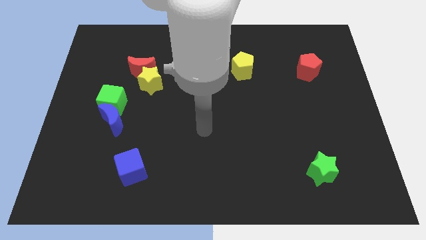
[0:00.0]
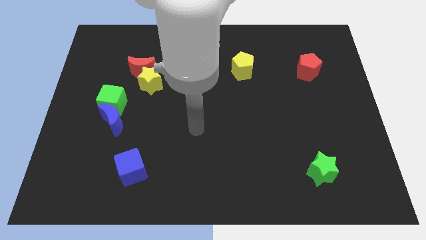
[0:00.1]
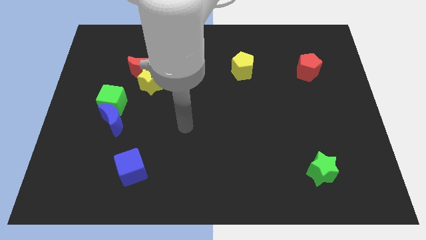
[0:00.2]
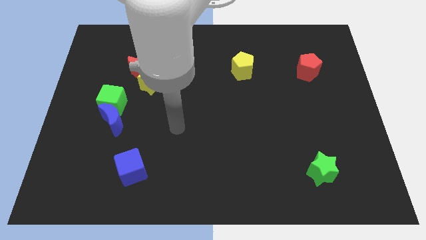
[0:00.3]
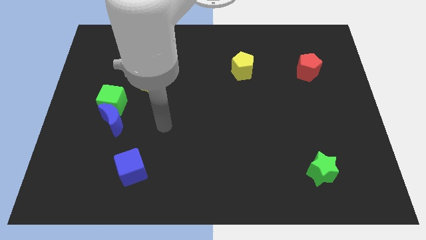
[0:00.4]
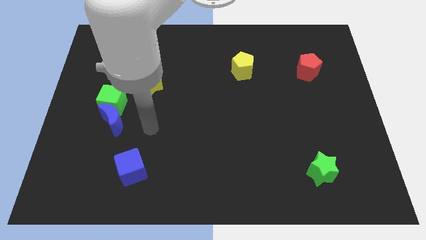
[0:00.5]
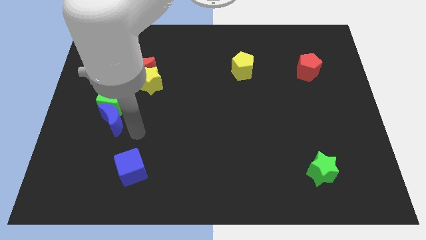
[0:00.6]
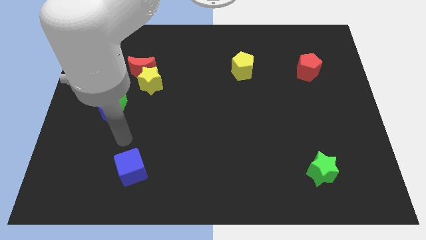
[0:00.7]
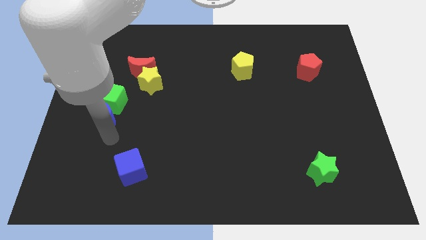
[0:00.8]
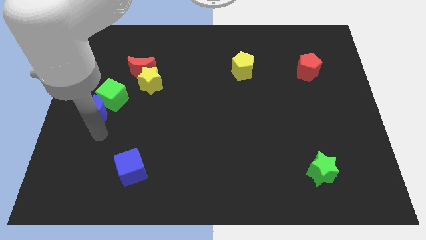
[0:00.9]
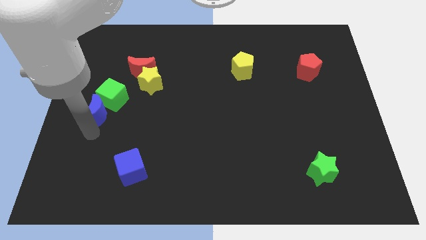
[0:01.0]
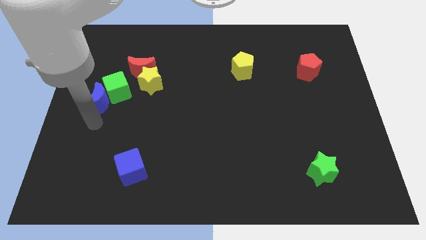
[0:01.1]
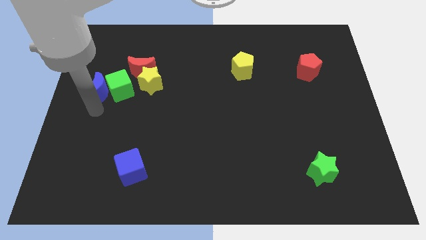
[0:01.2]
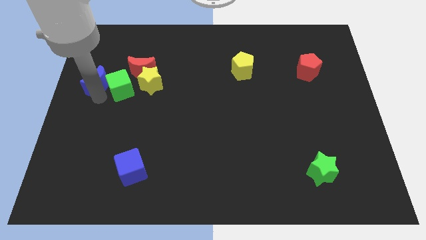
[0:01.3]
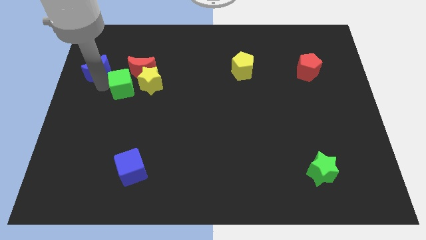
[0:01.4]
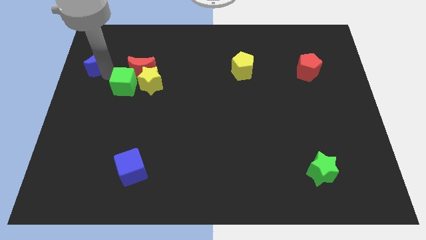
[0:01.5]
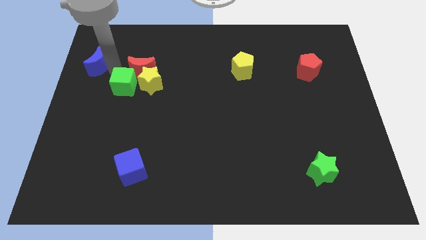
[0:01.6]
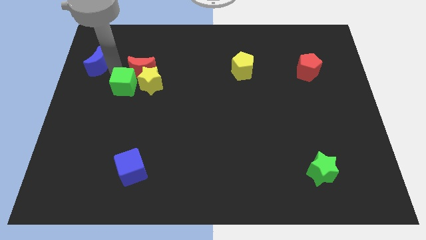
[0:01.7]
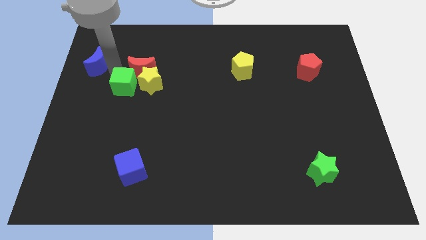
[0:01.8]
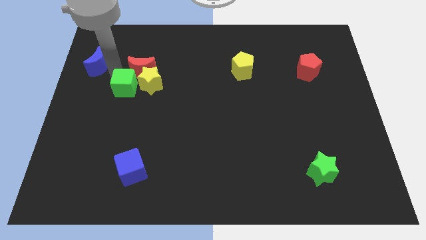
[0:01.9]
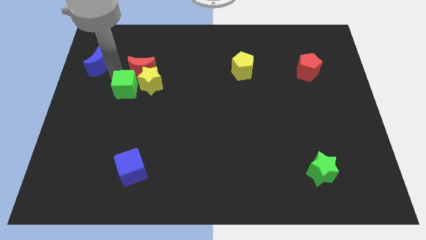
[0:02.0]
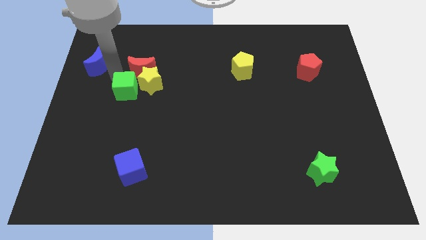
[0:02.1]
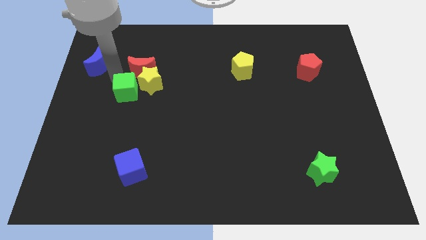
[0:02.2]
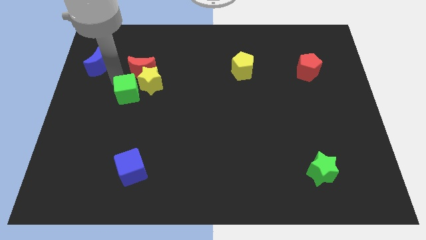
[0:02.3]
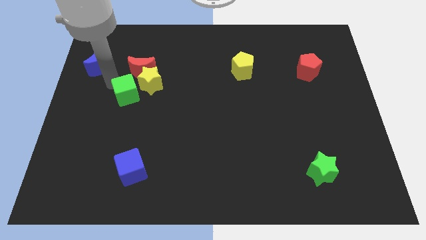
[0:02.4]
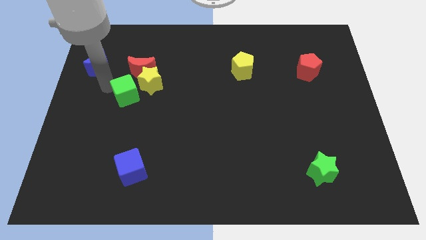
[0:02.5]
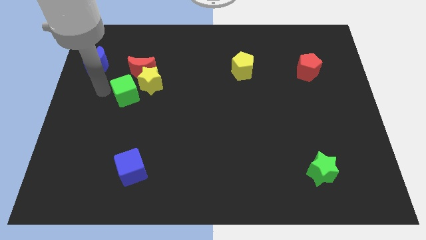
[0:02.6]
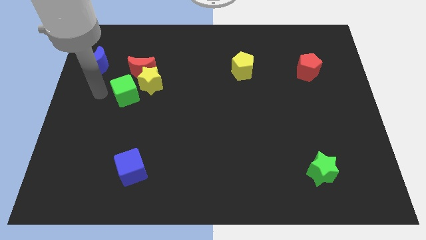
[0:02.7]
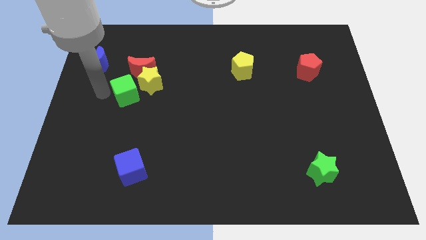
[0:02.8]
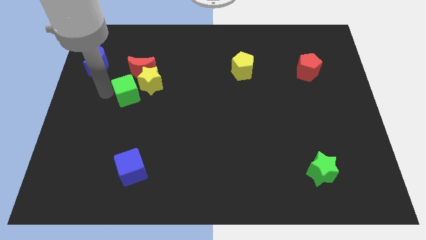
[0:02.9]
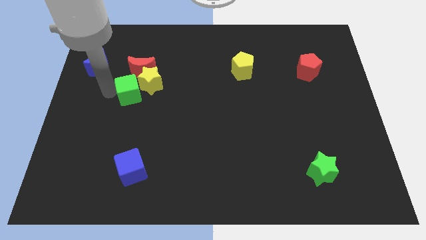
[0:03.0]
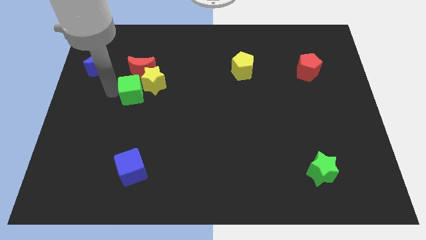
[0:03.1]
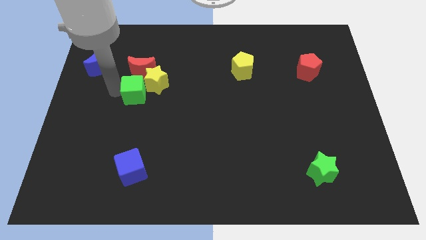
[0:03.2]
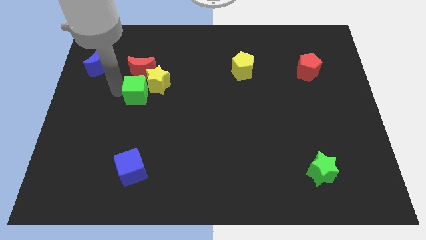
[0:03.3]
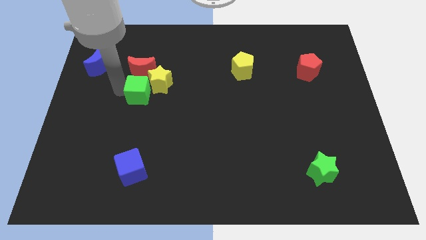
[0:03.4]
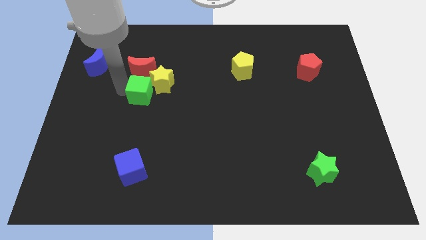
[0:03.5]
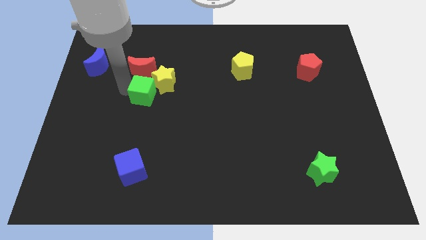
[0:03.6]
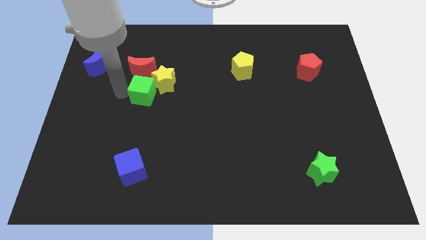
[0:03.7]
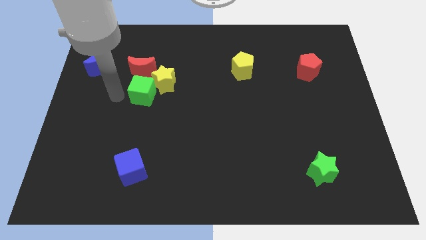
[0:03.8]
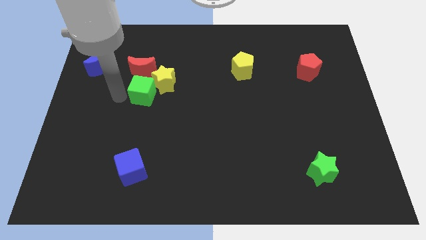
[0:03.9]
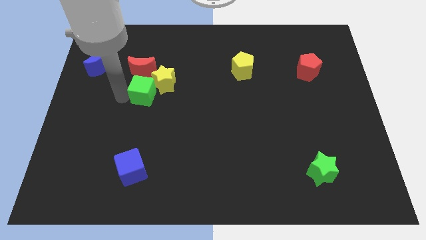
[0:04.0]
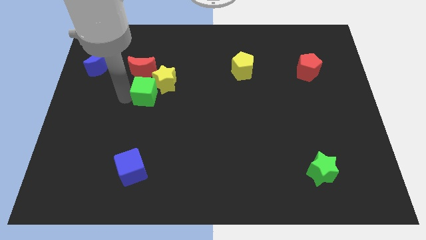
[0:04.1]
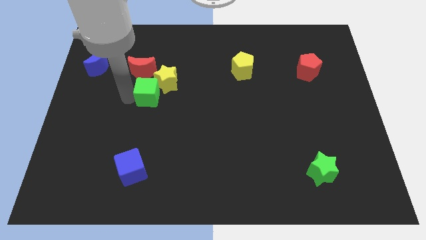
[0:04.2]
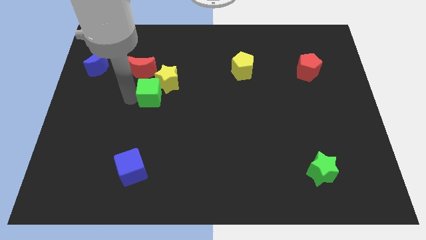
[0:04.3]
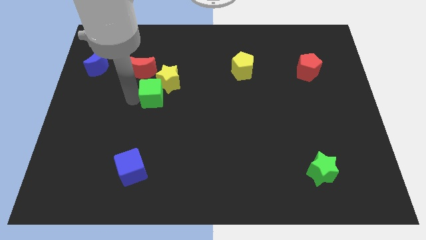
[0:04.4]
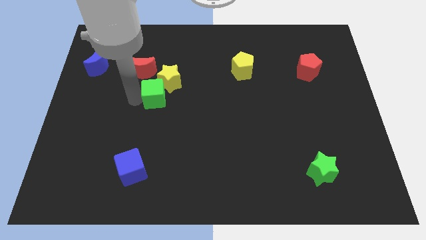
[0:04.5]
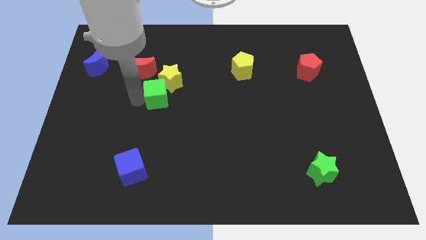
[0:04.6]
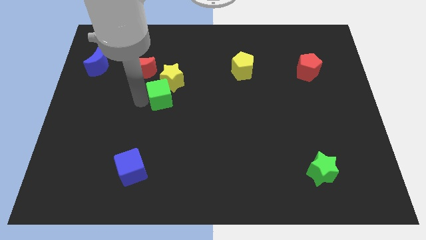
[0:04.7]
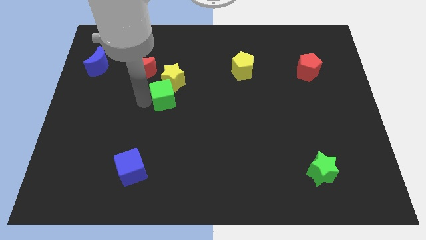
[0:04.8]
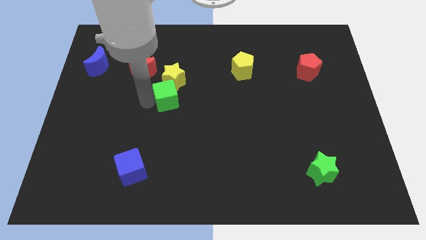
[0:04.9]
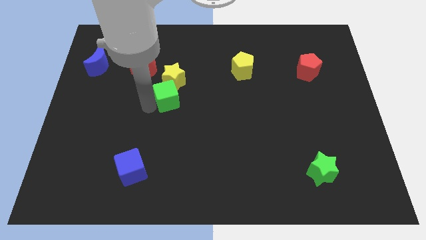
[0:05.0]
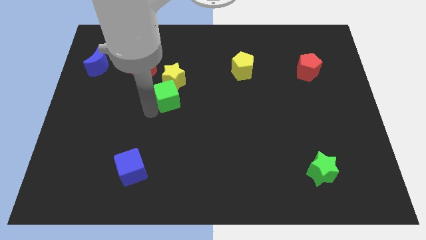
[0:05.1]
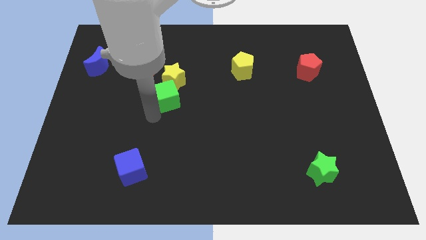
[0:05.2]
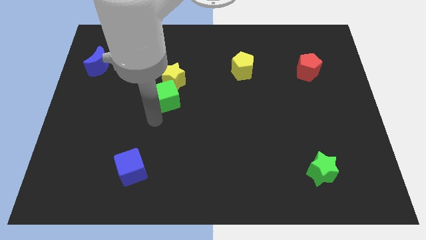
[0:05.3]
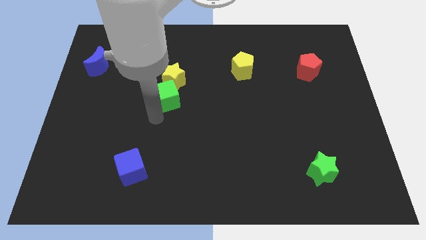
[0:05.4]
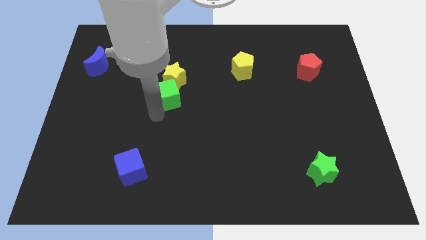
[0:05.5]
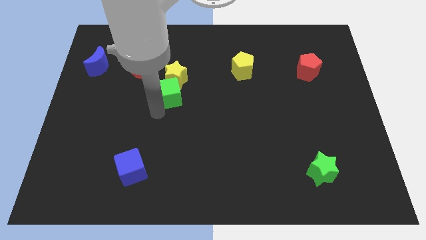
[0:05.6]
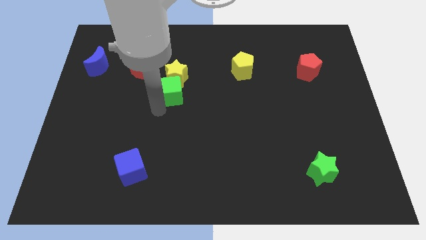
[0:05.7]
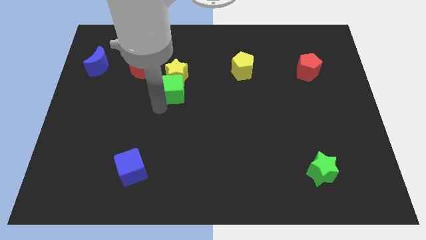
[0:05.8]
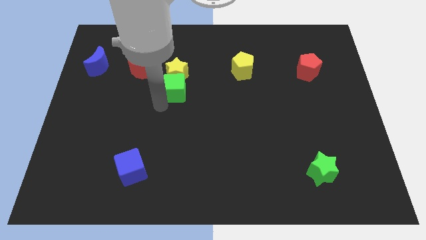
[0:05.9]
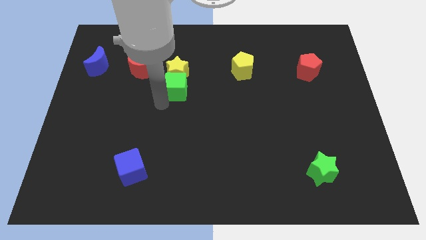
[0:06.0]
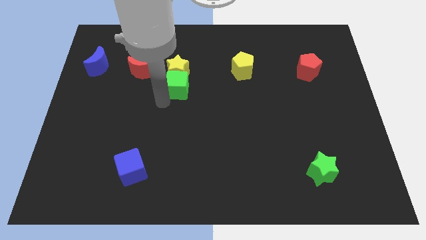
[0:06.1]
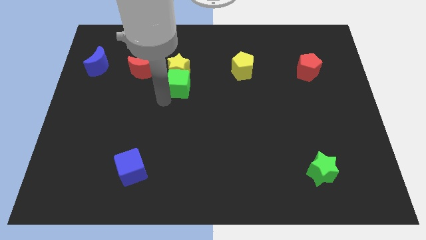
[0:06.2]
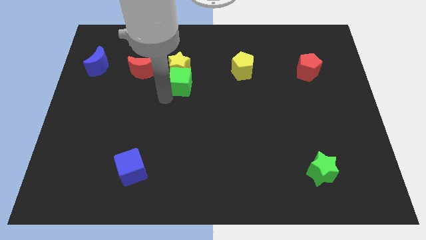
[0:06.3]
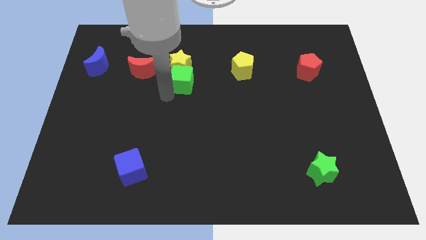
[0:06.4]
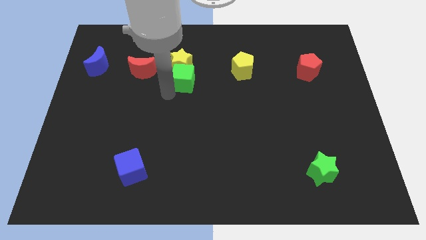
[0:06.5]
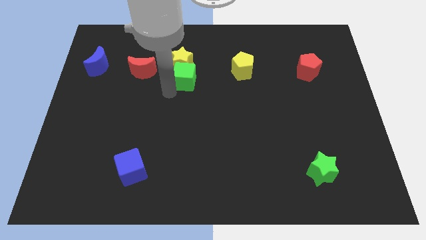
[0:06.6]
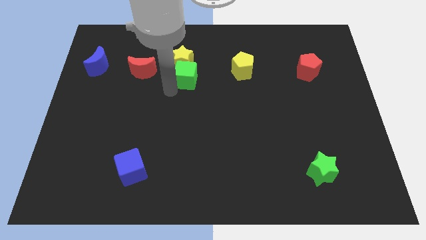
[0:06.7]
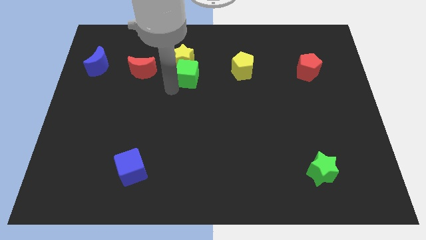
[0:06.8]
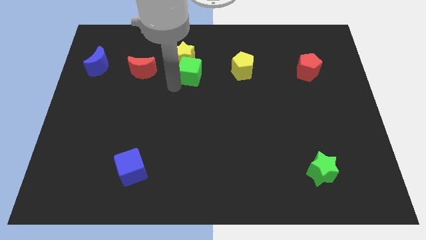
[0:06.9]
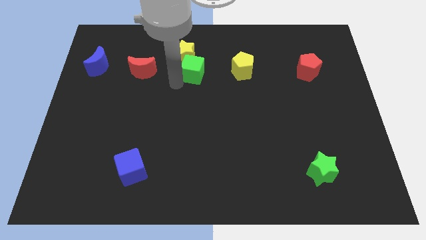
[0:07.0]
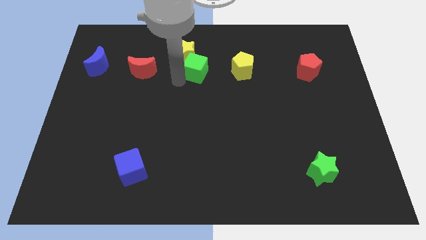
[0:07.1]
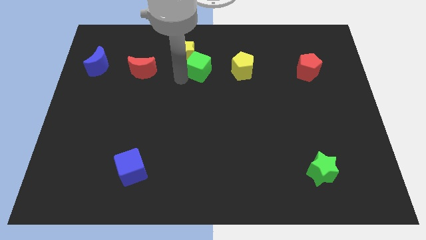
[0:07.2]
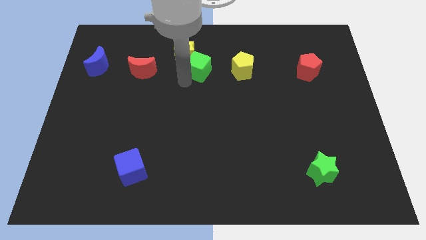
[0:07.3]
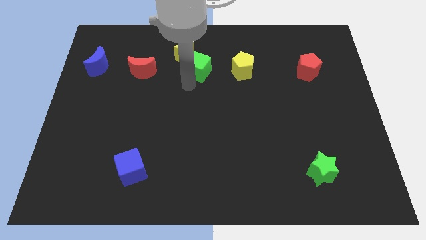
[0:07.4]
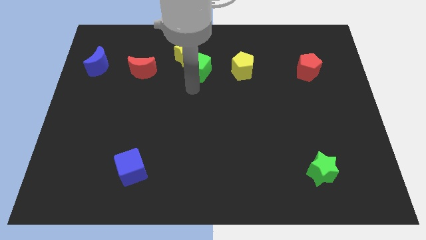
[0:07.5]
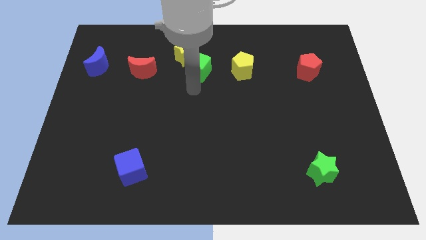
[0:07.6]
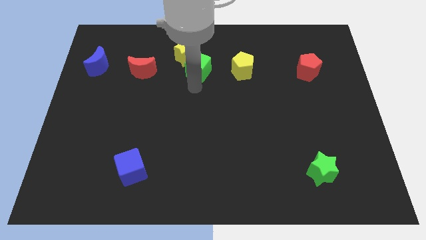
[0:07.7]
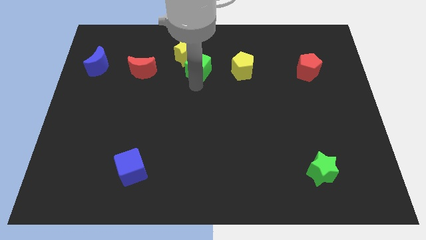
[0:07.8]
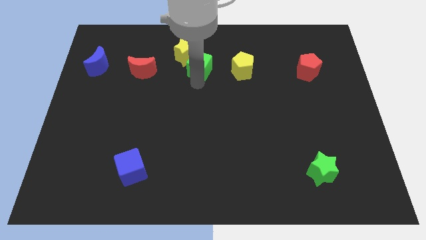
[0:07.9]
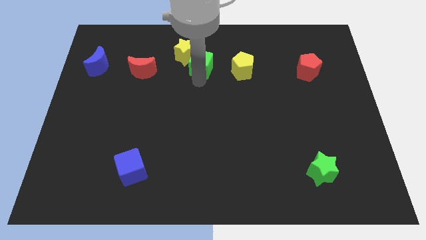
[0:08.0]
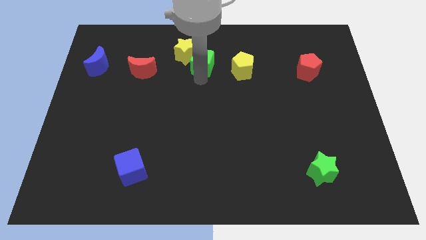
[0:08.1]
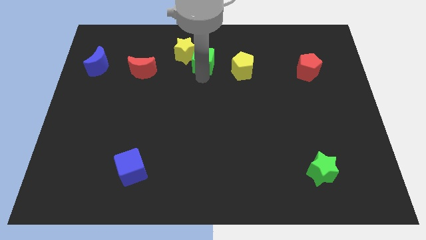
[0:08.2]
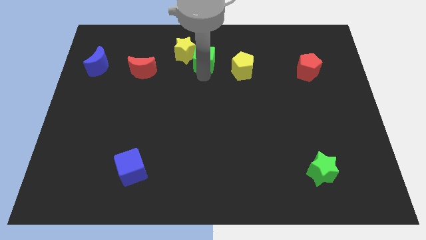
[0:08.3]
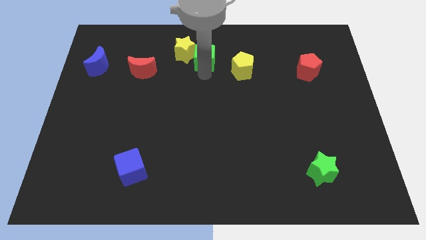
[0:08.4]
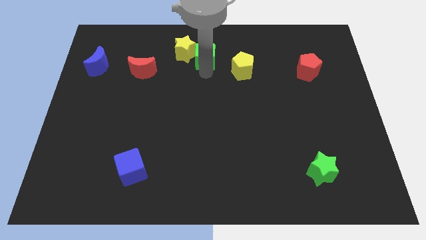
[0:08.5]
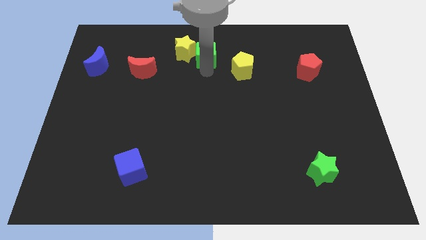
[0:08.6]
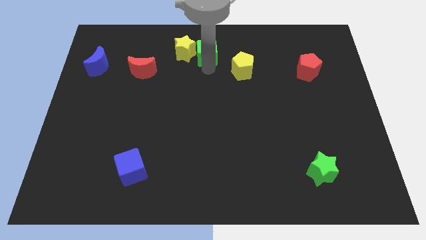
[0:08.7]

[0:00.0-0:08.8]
push the green cube to the top
